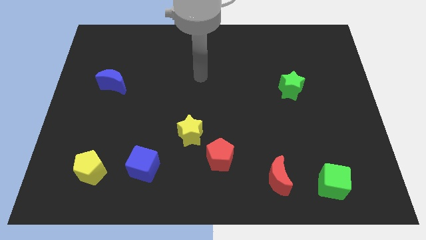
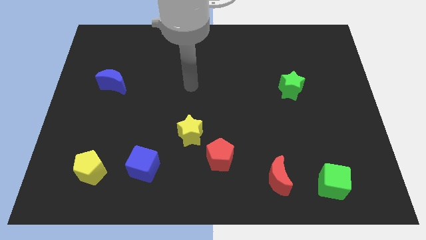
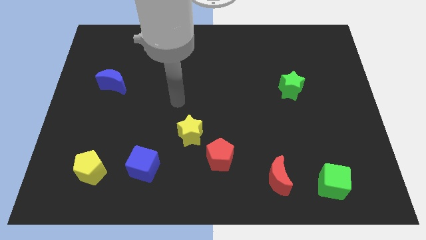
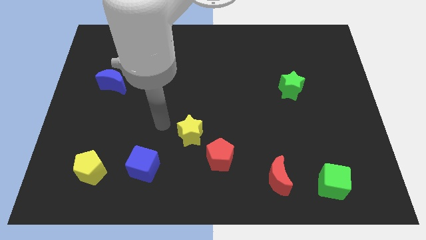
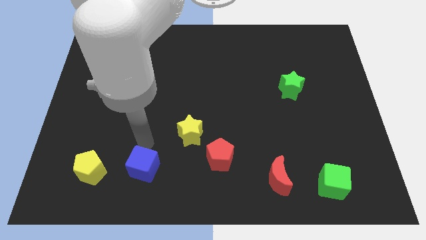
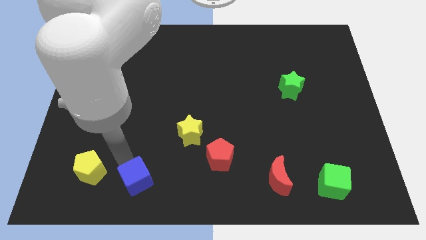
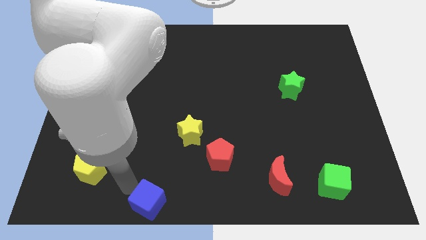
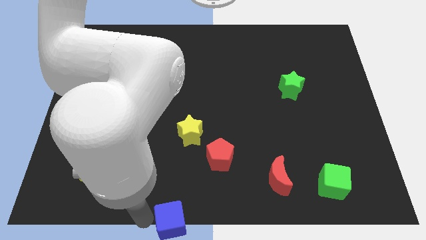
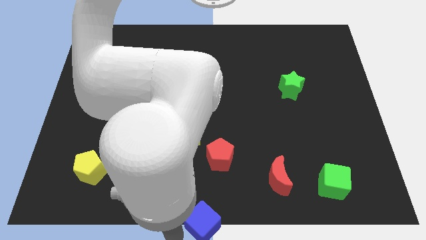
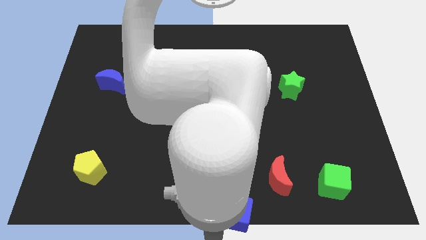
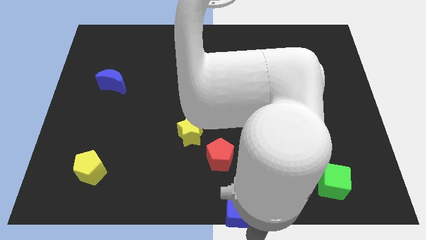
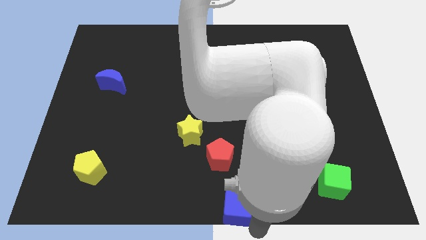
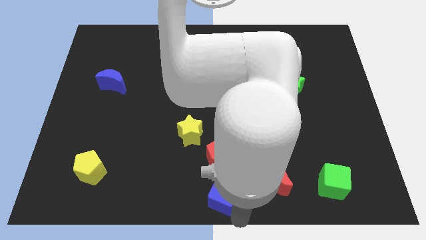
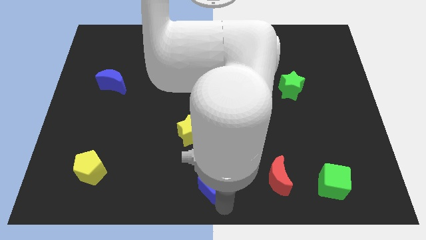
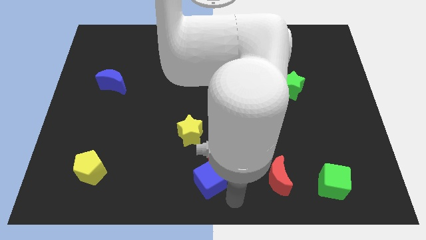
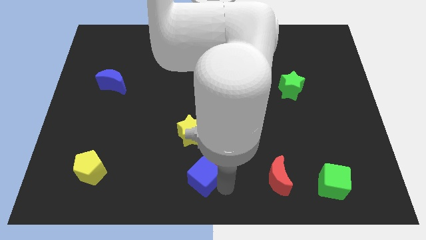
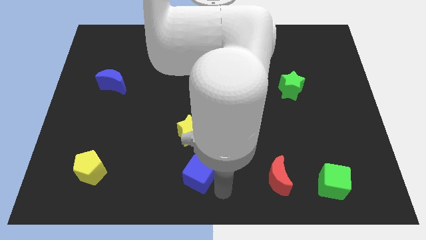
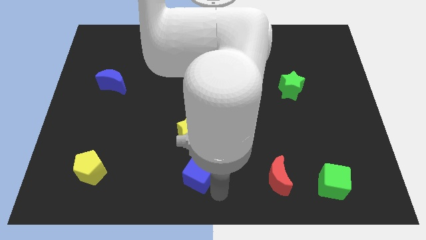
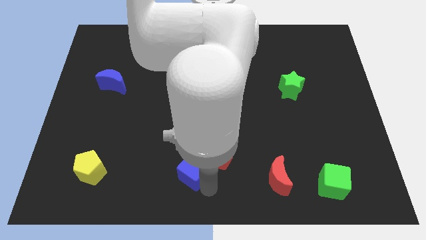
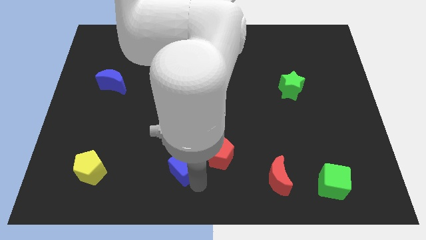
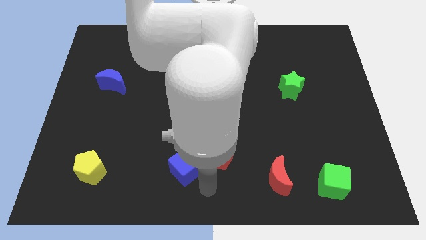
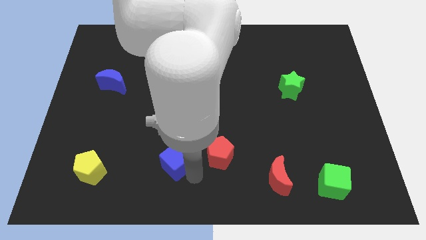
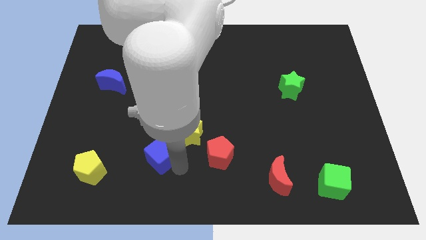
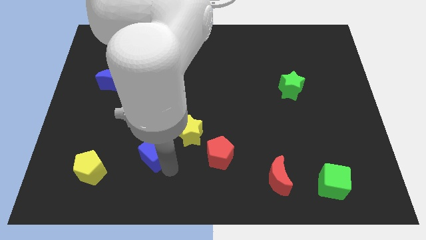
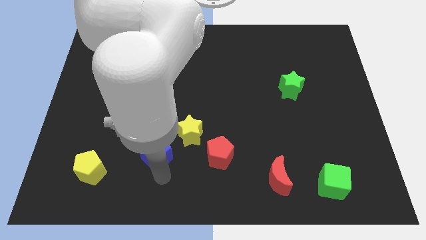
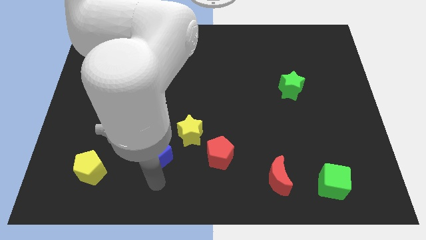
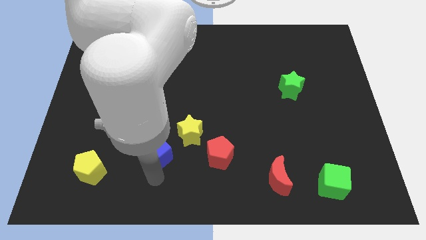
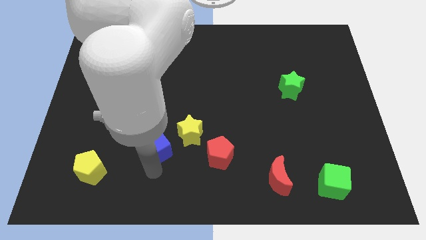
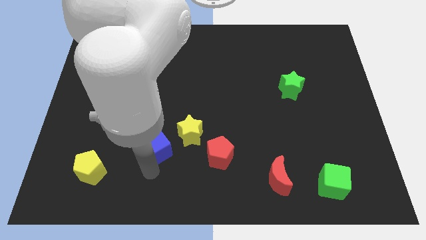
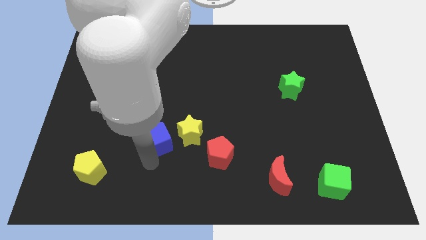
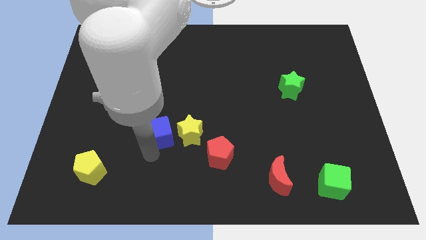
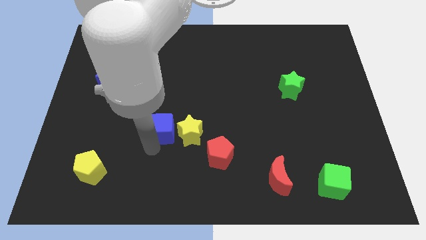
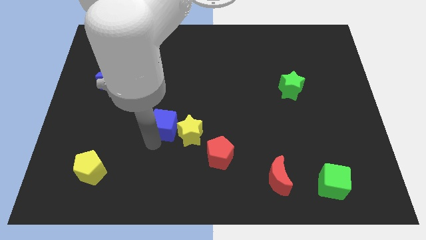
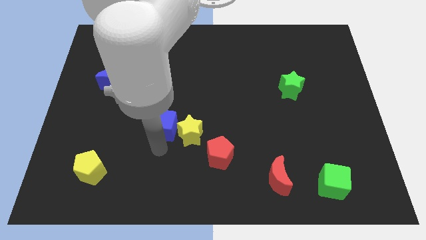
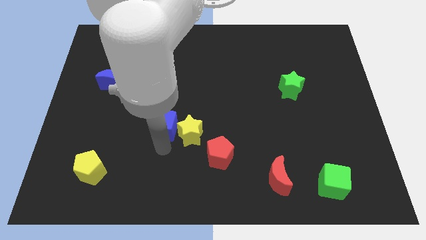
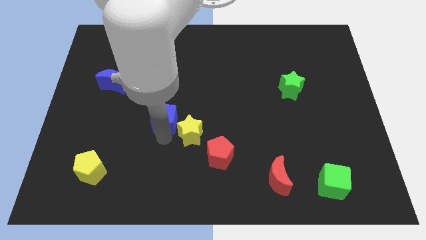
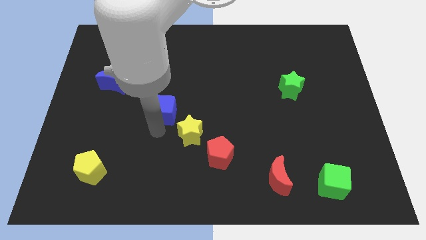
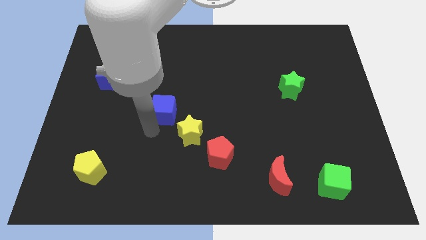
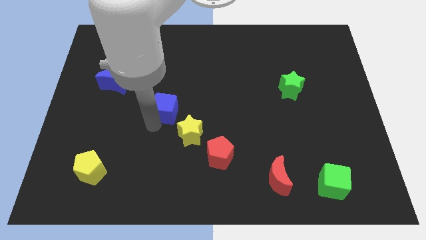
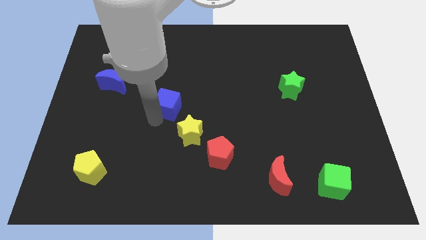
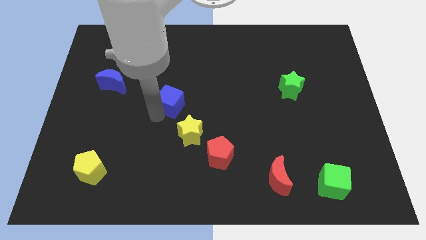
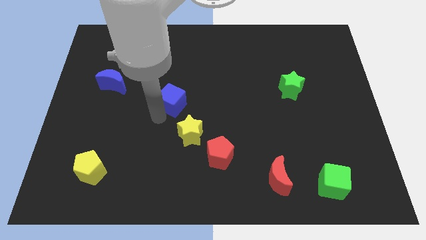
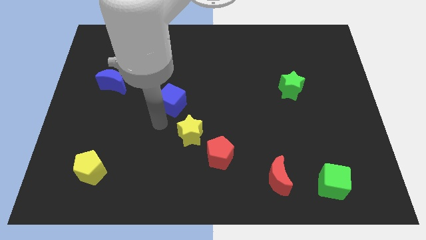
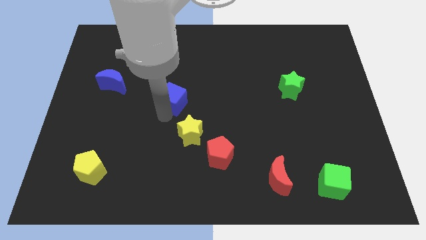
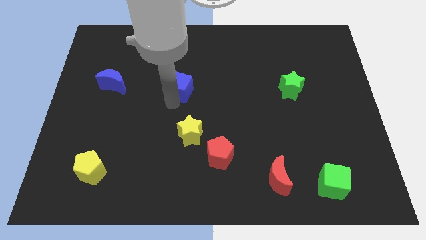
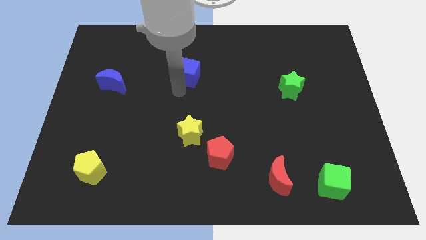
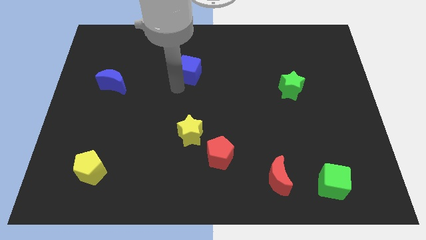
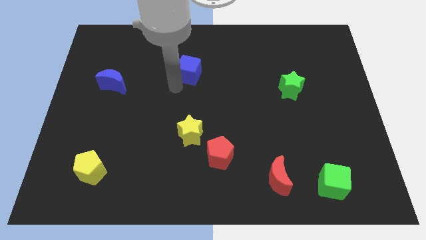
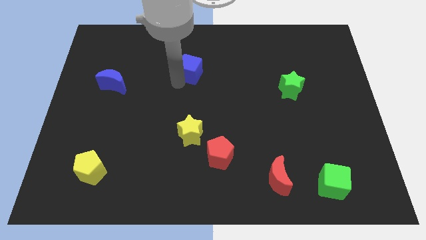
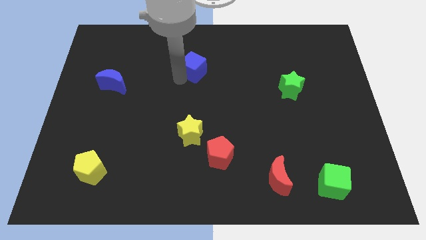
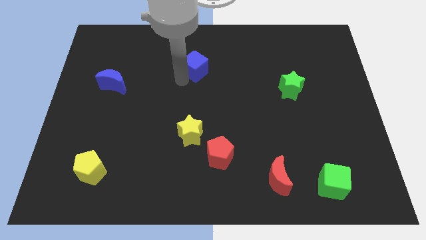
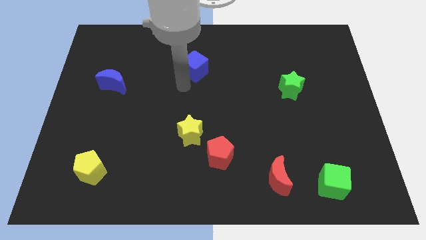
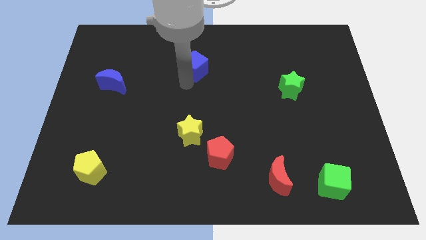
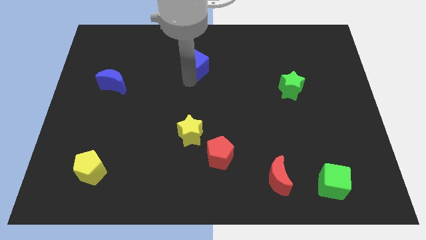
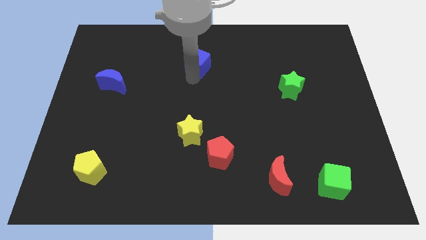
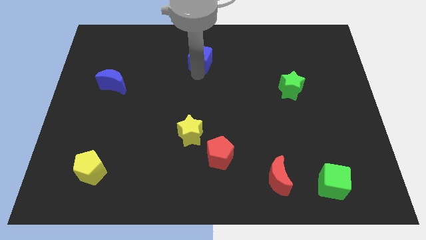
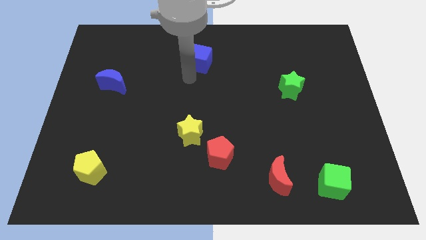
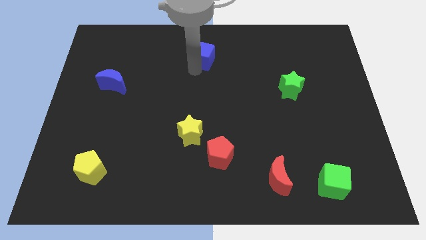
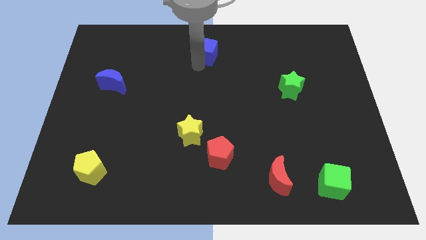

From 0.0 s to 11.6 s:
move the blue cube to the top

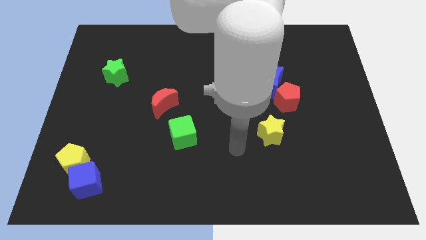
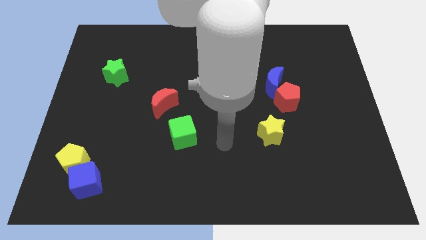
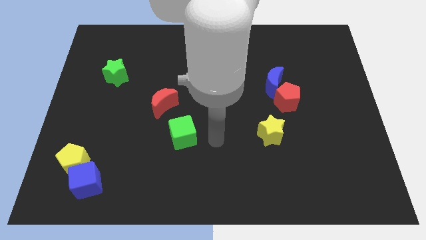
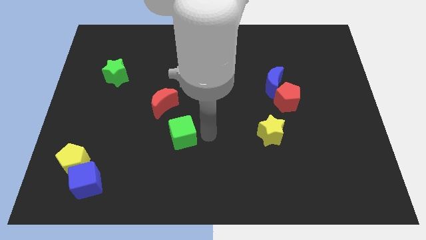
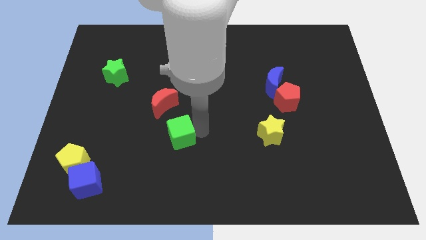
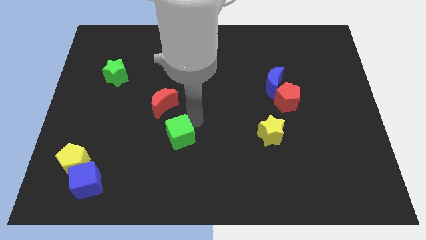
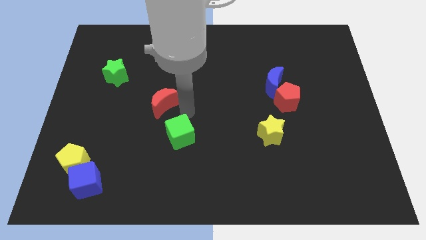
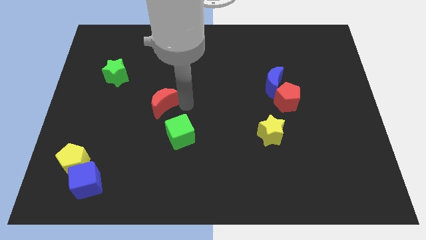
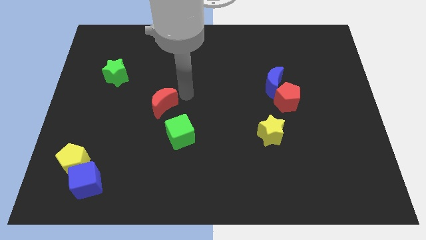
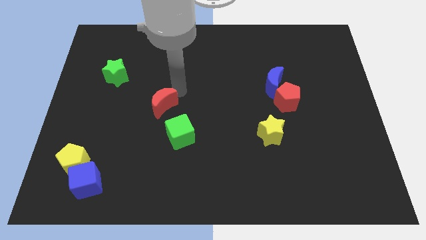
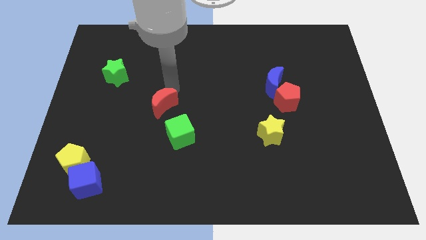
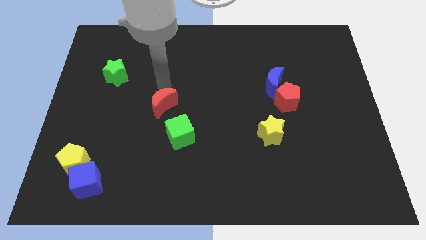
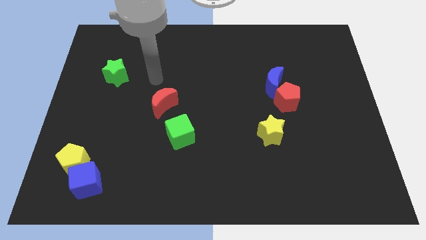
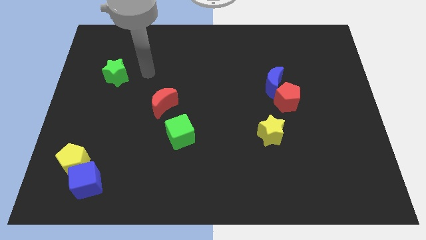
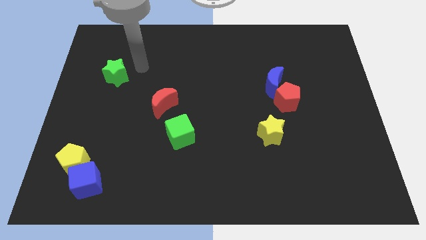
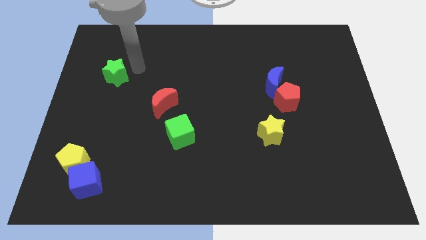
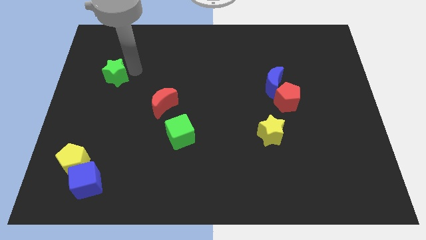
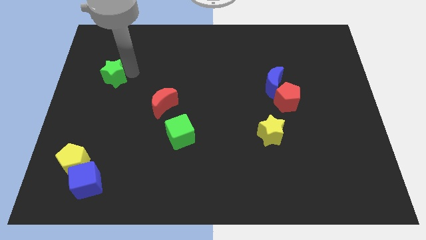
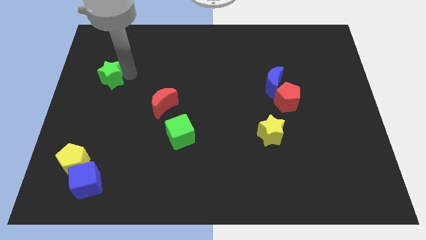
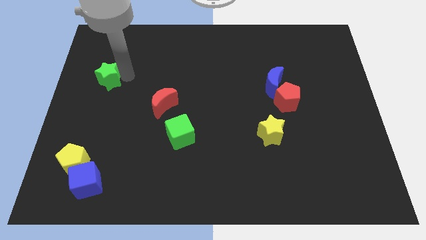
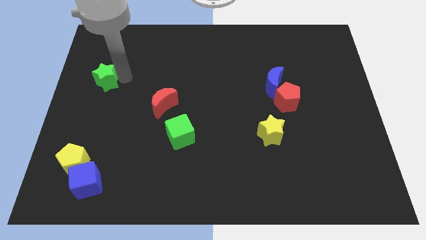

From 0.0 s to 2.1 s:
push the green star to the left side of the board
